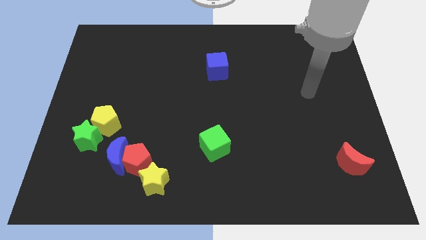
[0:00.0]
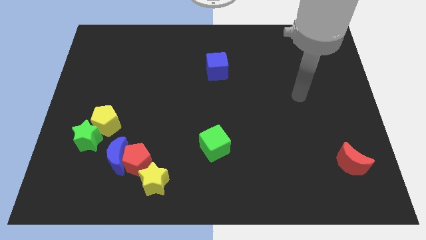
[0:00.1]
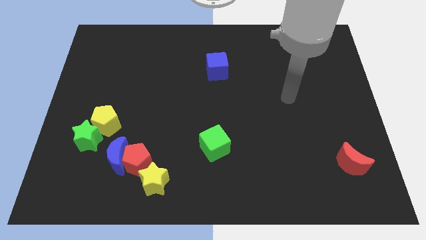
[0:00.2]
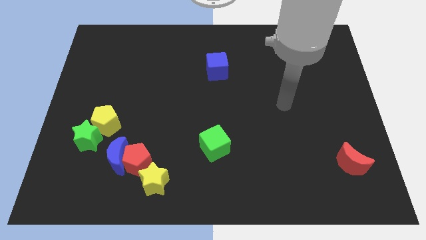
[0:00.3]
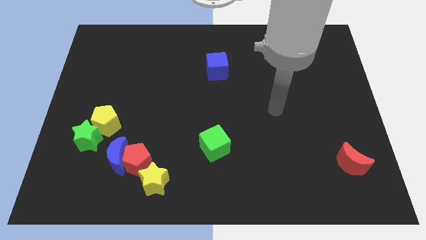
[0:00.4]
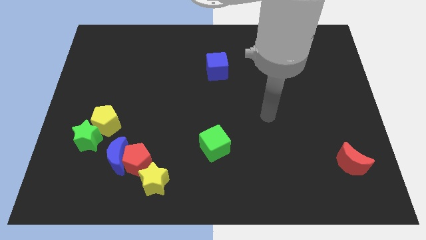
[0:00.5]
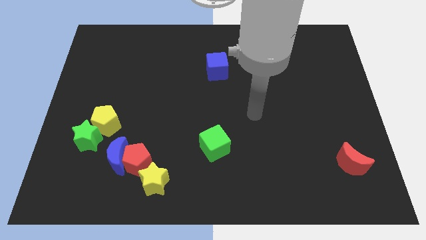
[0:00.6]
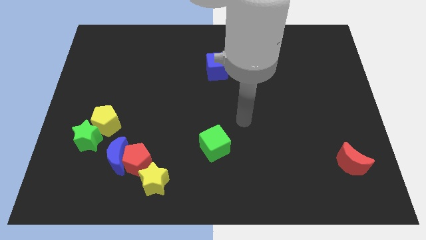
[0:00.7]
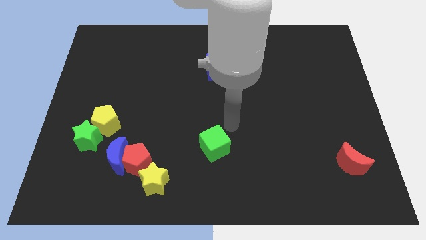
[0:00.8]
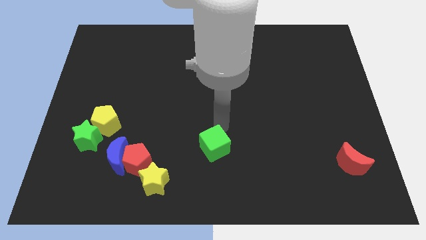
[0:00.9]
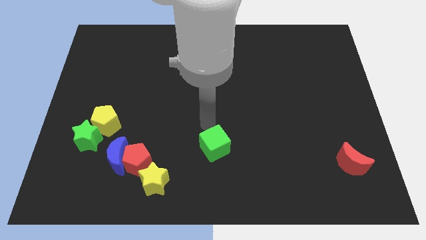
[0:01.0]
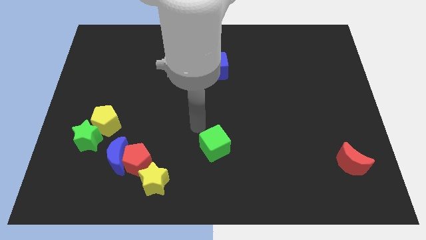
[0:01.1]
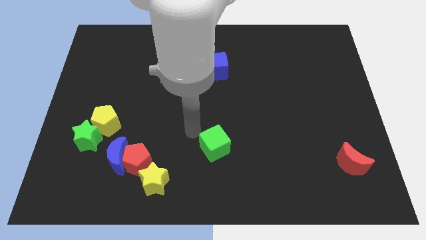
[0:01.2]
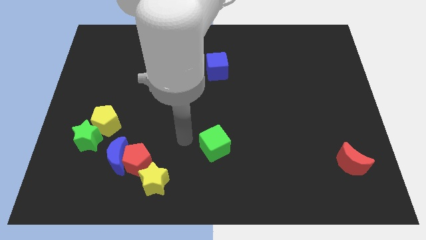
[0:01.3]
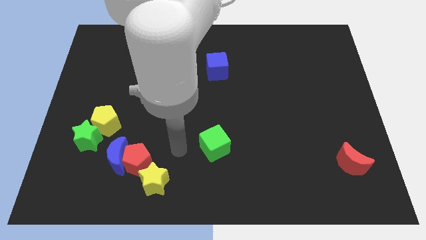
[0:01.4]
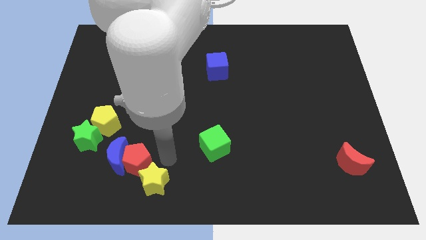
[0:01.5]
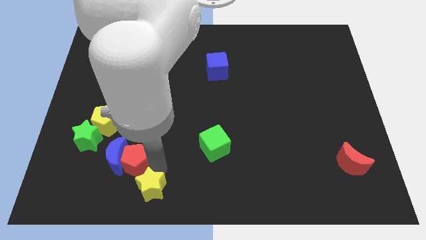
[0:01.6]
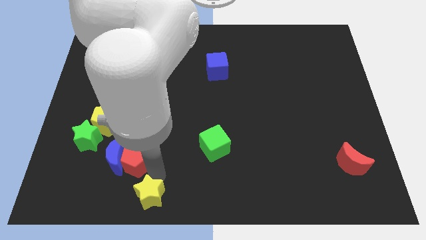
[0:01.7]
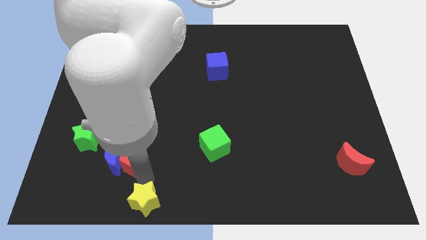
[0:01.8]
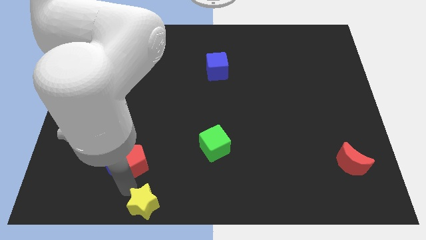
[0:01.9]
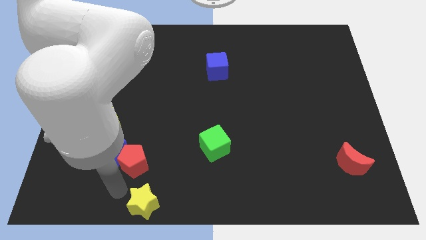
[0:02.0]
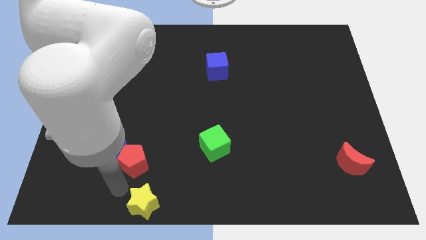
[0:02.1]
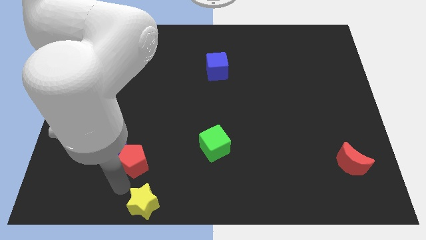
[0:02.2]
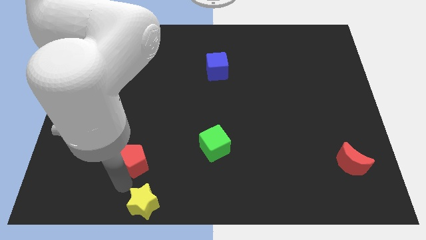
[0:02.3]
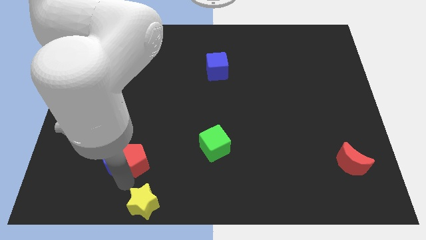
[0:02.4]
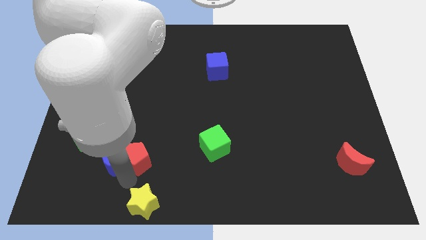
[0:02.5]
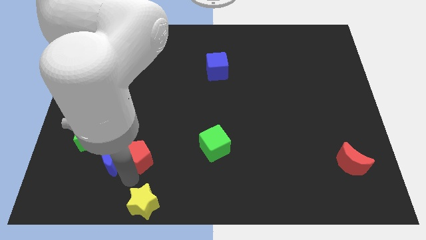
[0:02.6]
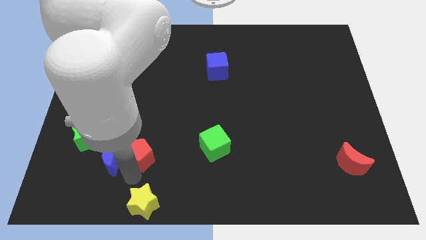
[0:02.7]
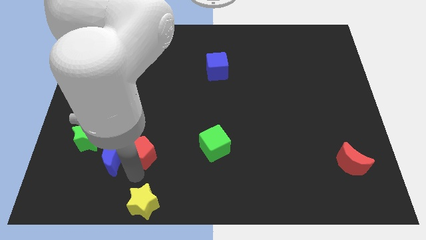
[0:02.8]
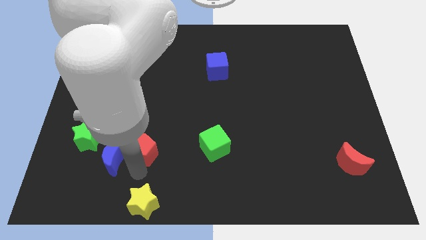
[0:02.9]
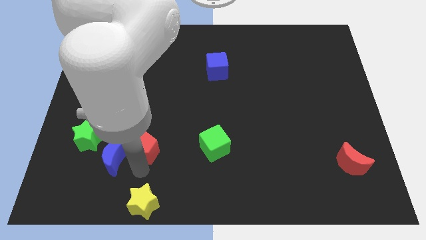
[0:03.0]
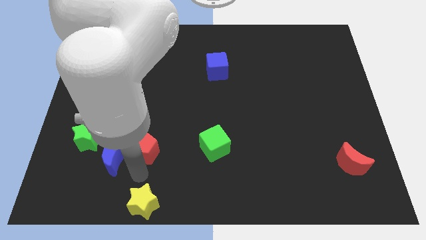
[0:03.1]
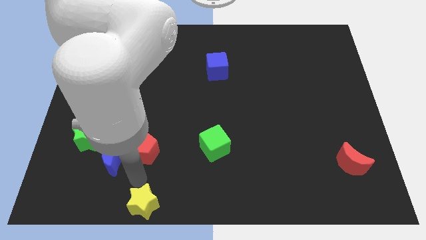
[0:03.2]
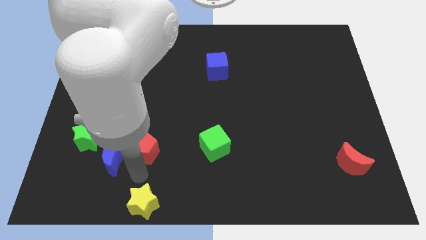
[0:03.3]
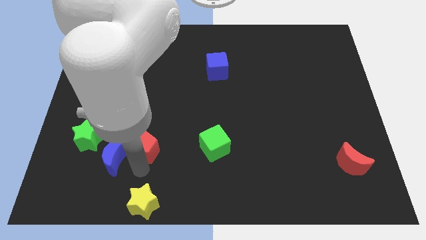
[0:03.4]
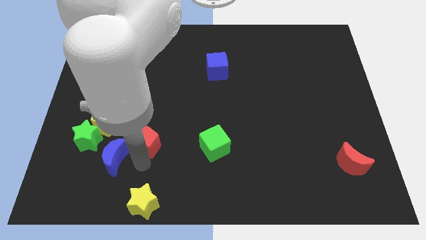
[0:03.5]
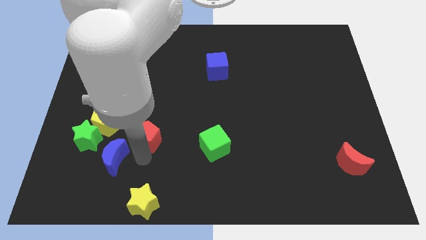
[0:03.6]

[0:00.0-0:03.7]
pull the red pentagon apart from the blue moon and yellow star

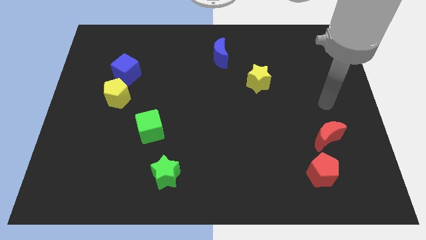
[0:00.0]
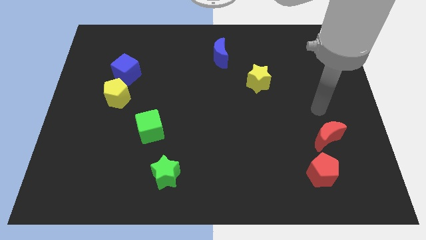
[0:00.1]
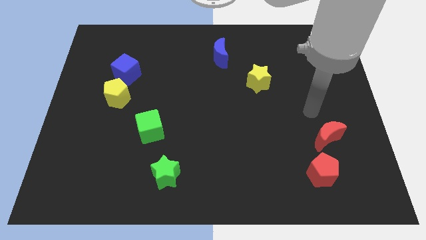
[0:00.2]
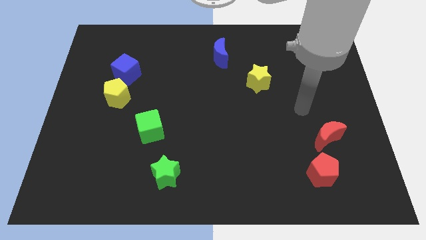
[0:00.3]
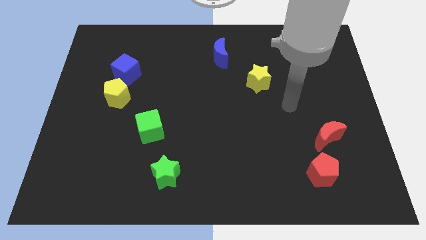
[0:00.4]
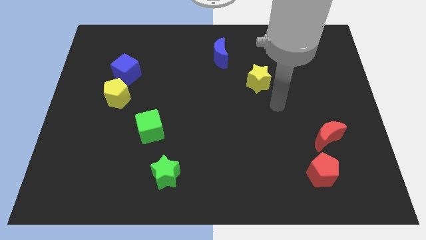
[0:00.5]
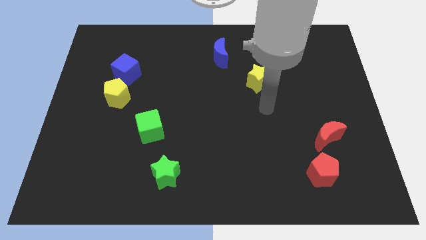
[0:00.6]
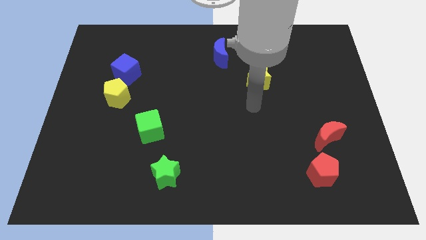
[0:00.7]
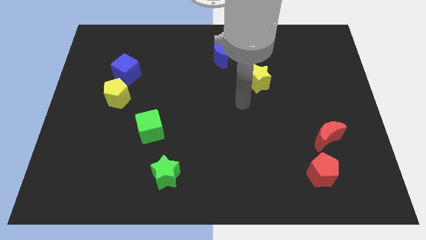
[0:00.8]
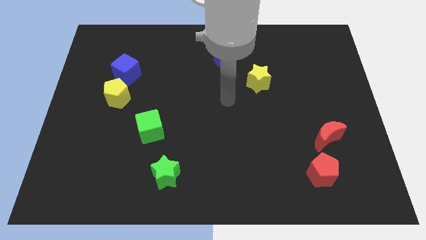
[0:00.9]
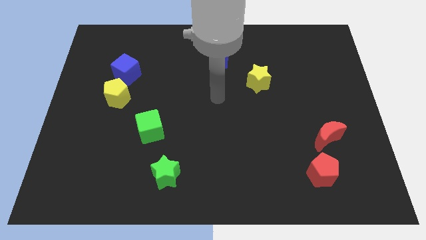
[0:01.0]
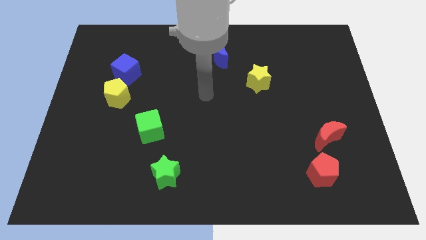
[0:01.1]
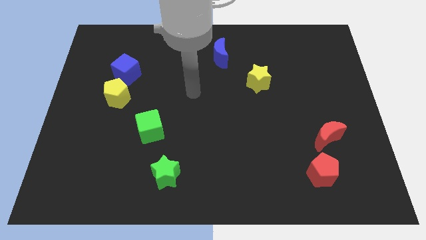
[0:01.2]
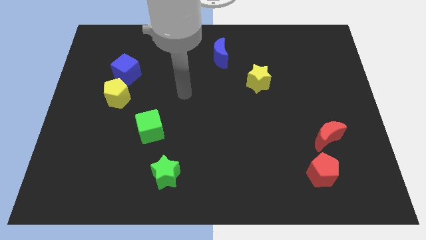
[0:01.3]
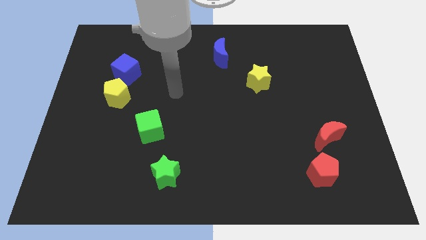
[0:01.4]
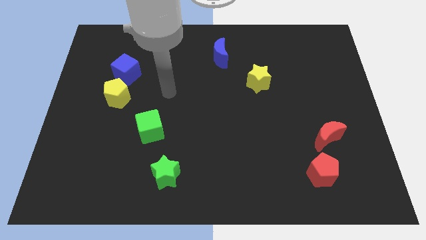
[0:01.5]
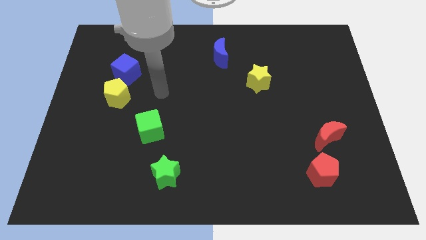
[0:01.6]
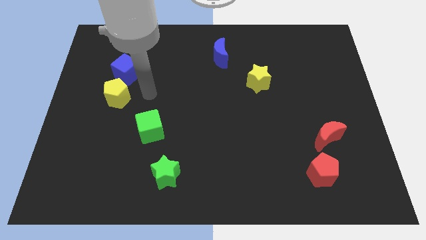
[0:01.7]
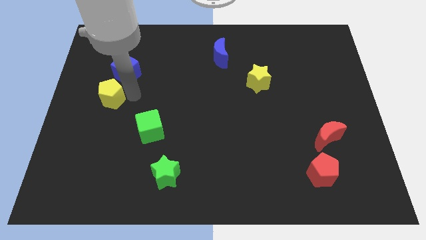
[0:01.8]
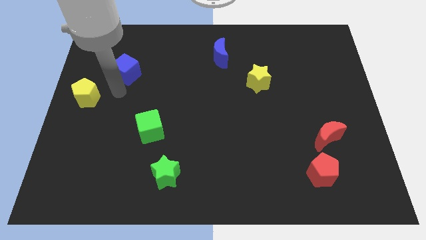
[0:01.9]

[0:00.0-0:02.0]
move the blue cube away from the yellow pentagon

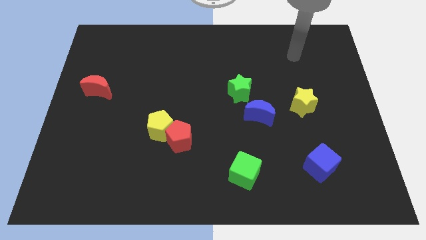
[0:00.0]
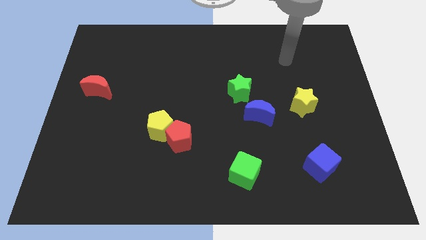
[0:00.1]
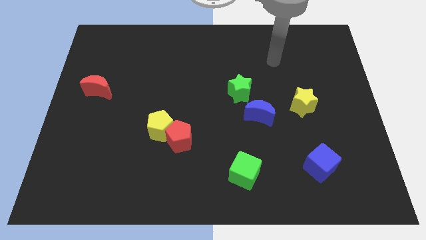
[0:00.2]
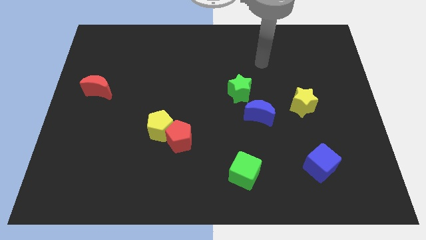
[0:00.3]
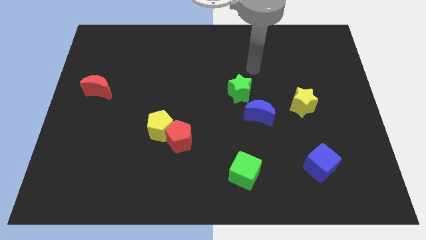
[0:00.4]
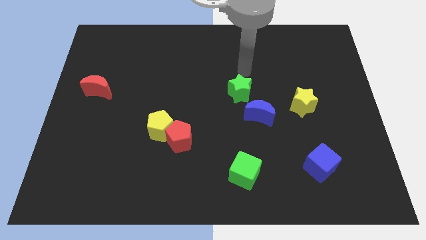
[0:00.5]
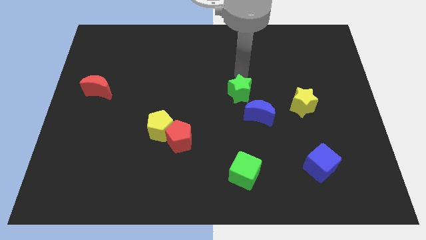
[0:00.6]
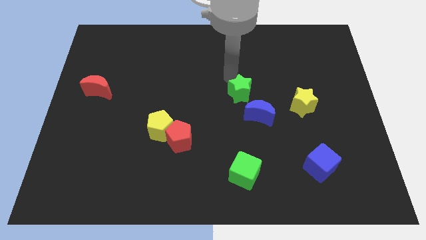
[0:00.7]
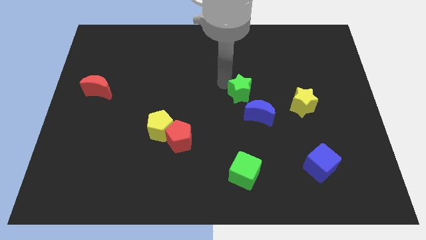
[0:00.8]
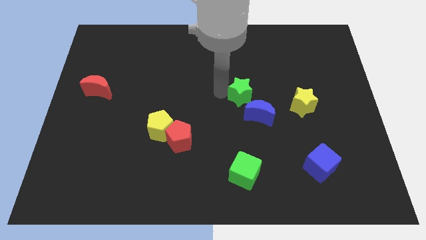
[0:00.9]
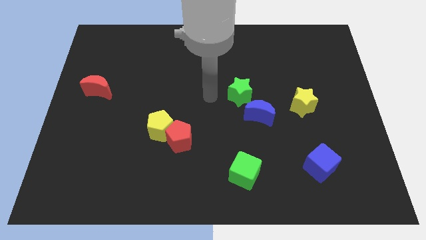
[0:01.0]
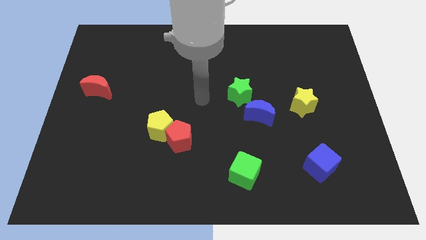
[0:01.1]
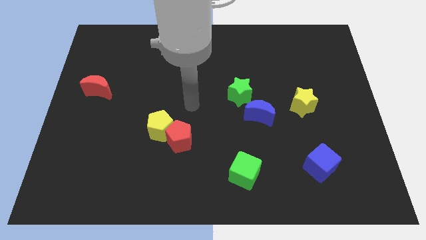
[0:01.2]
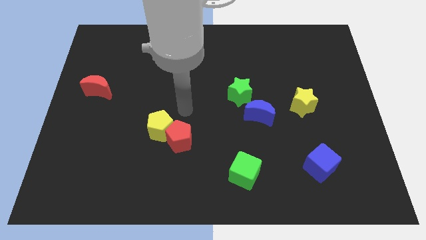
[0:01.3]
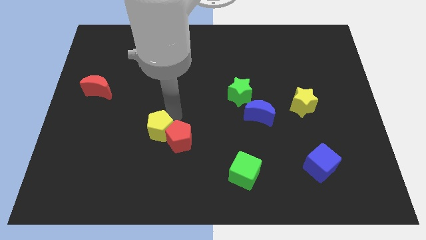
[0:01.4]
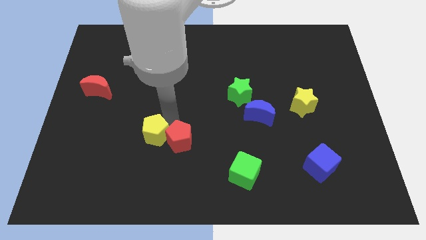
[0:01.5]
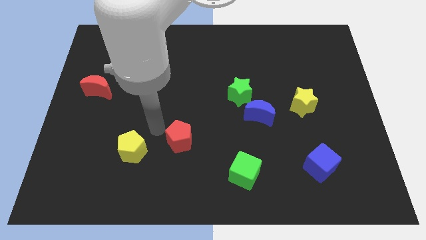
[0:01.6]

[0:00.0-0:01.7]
separate the red pentagon from the yellow pentagon

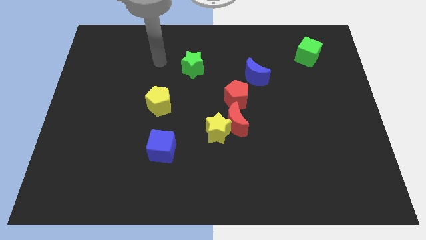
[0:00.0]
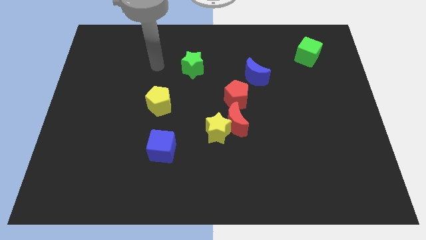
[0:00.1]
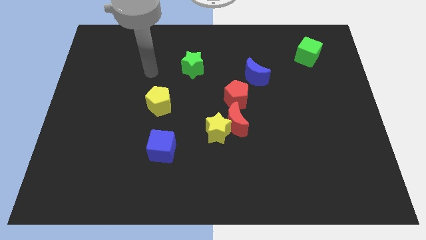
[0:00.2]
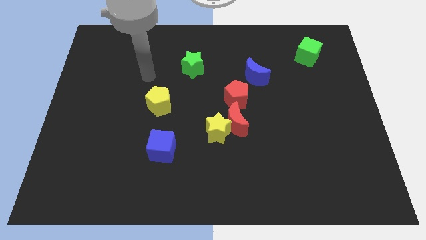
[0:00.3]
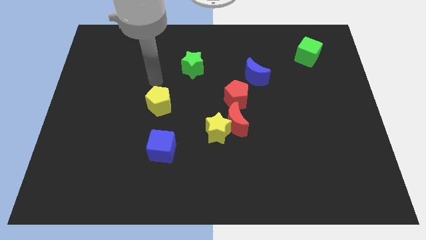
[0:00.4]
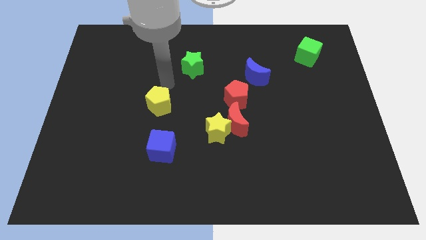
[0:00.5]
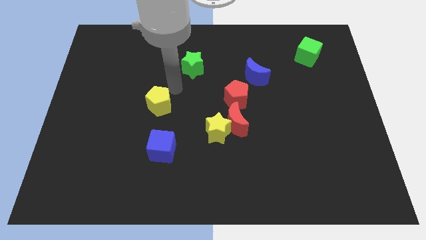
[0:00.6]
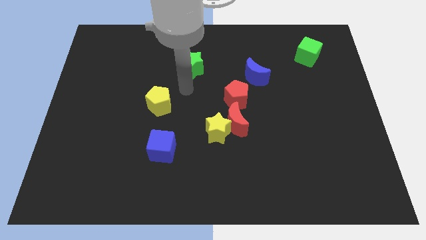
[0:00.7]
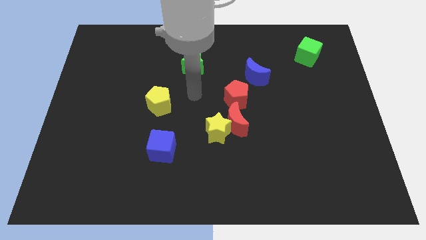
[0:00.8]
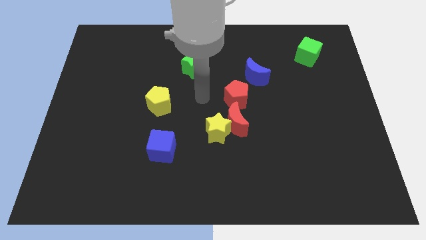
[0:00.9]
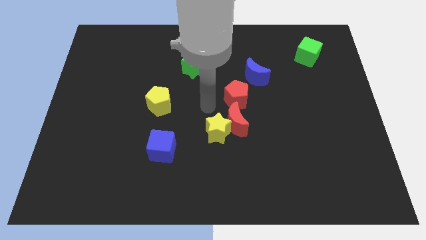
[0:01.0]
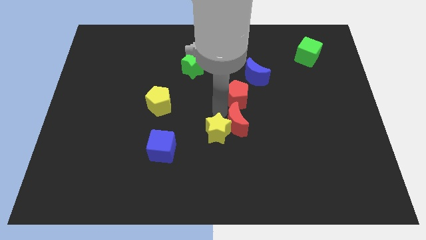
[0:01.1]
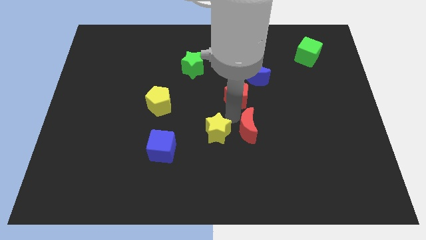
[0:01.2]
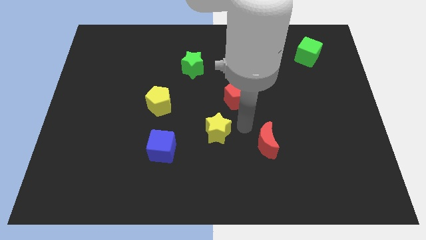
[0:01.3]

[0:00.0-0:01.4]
separate the yellow star from the red moon

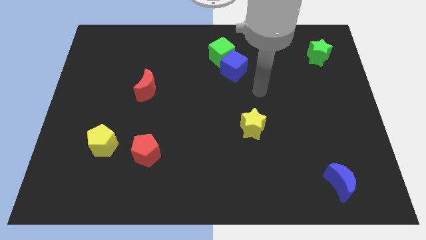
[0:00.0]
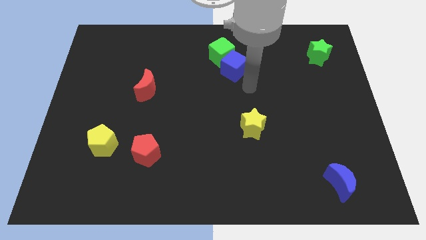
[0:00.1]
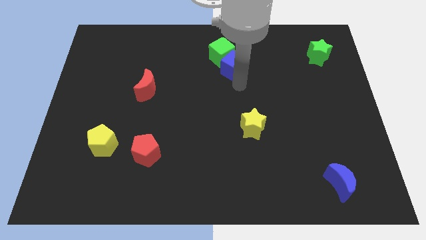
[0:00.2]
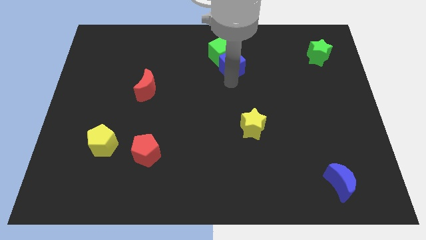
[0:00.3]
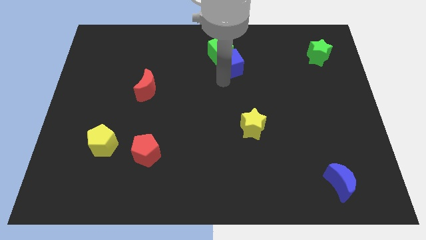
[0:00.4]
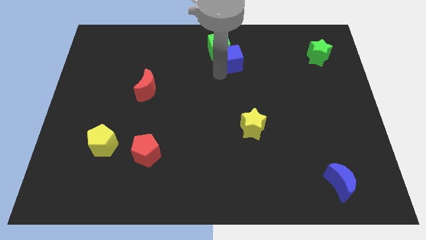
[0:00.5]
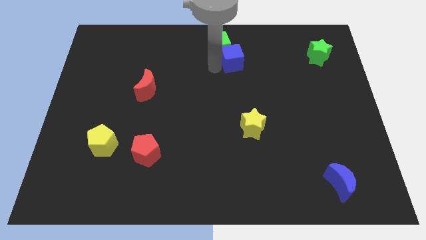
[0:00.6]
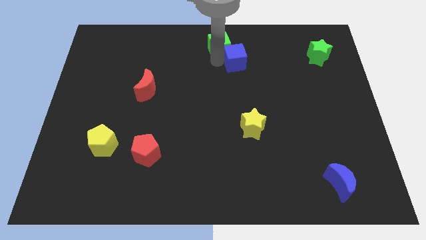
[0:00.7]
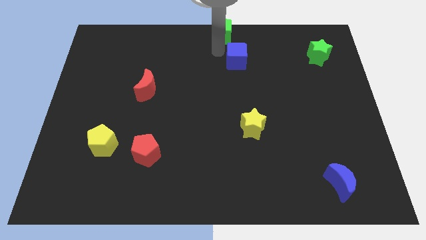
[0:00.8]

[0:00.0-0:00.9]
separate the blue cube from the green cube
